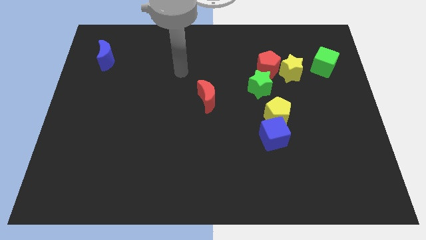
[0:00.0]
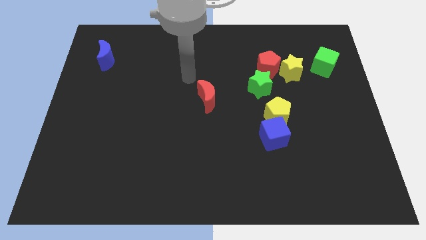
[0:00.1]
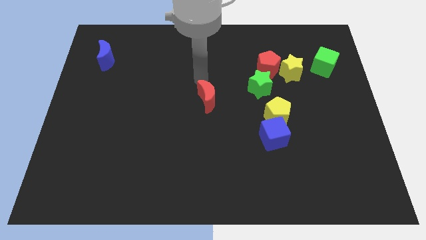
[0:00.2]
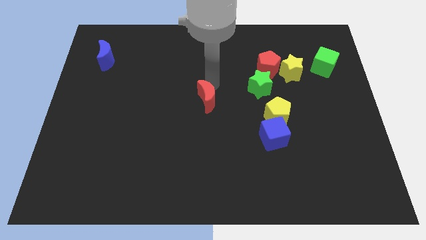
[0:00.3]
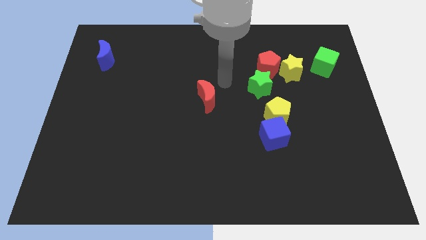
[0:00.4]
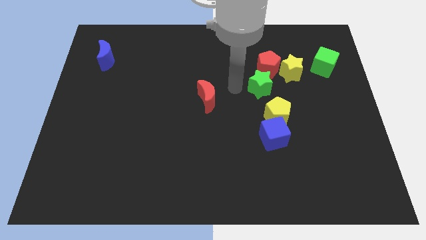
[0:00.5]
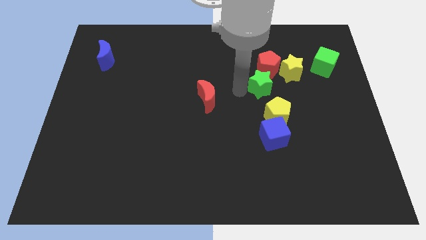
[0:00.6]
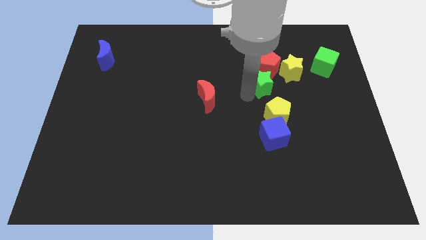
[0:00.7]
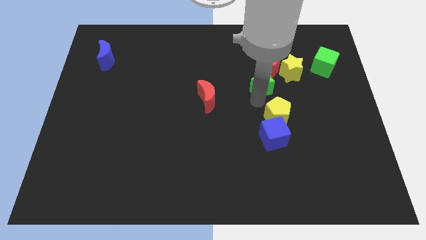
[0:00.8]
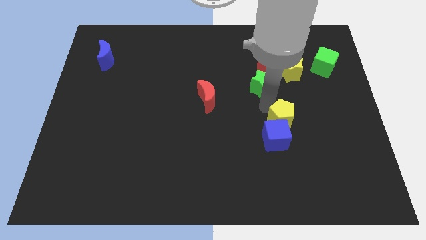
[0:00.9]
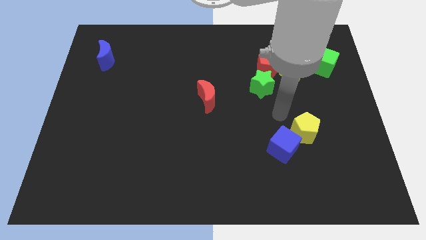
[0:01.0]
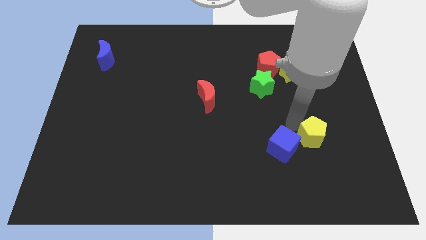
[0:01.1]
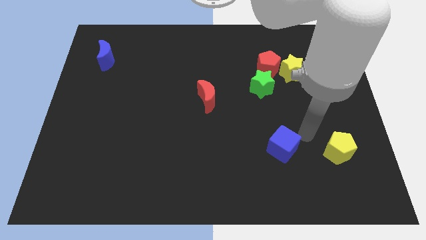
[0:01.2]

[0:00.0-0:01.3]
separate the blue cube from the yellow pentagon

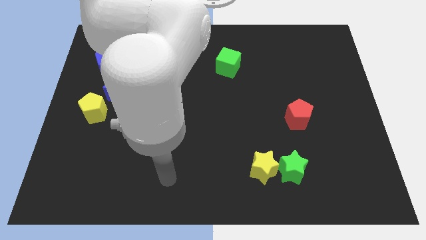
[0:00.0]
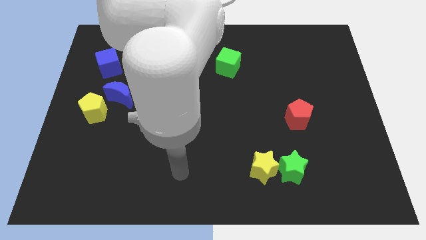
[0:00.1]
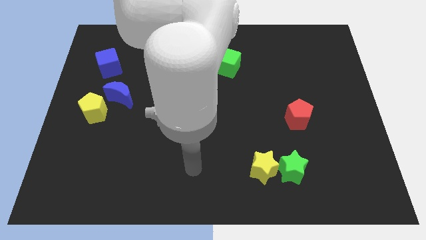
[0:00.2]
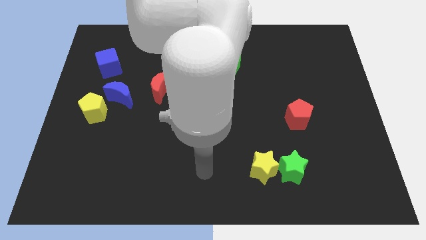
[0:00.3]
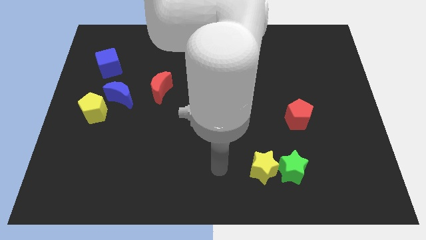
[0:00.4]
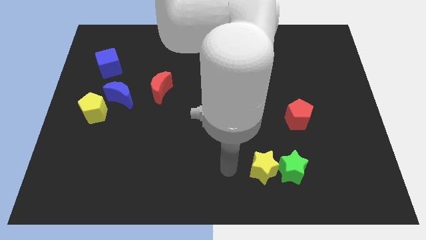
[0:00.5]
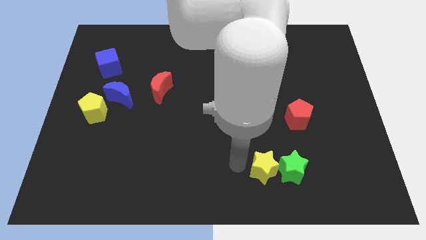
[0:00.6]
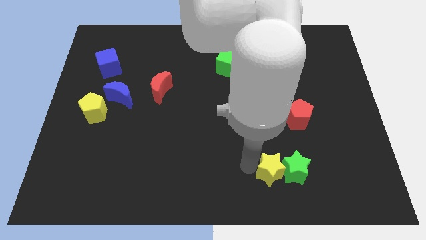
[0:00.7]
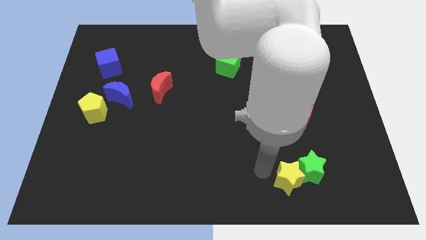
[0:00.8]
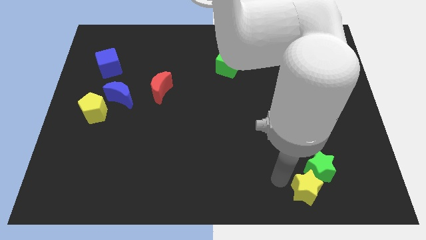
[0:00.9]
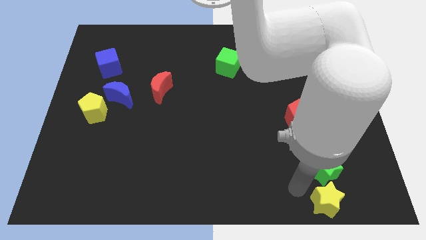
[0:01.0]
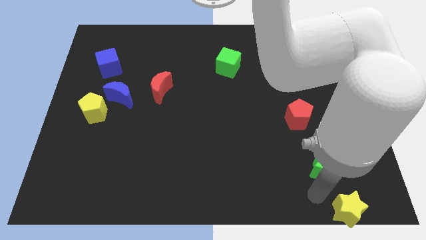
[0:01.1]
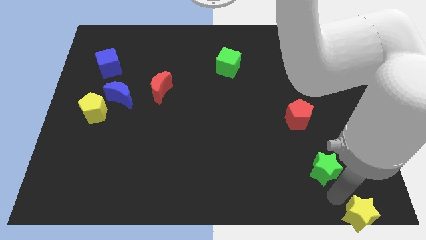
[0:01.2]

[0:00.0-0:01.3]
pull the green star apart from the yellow star

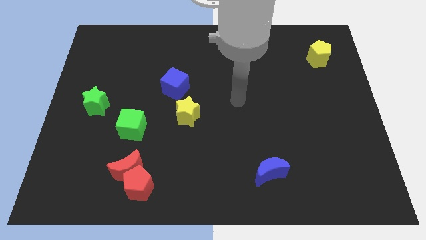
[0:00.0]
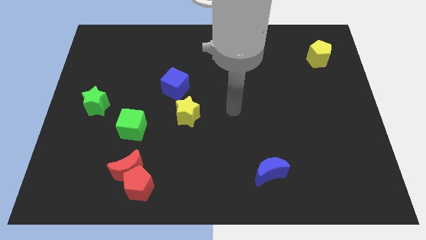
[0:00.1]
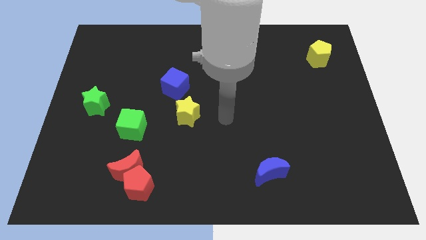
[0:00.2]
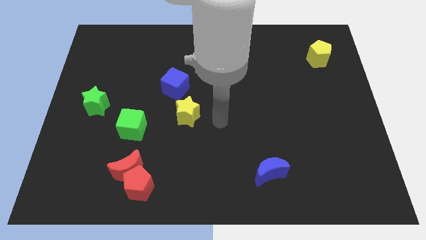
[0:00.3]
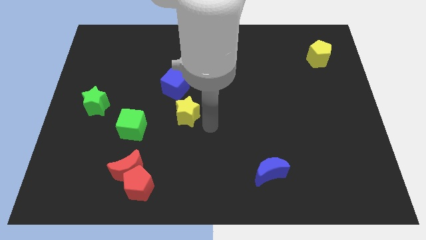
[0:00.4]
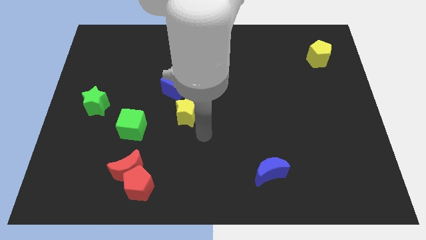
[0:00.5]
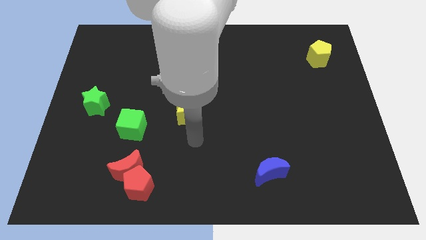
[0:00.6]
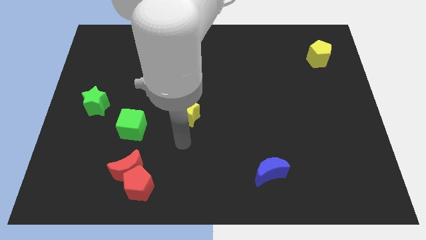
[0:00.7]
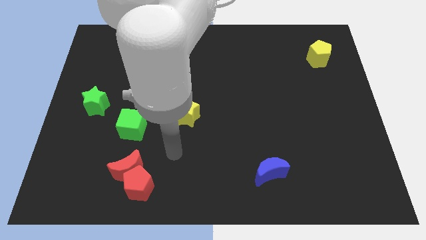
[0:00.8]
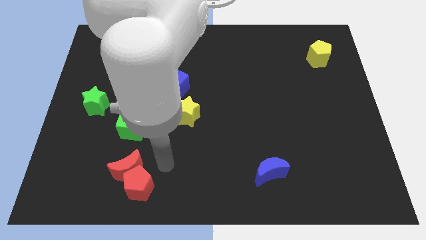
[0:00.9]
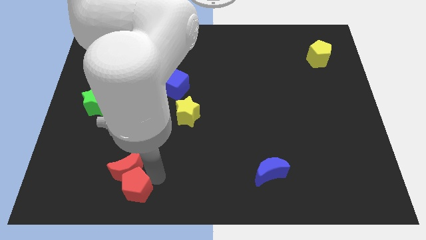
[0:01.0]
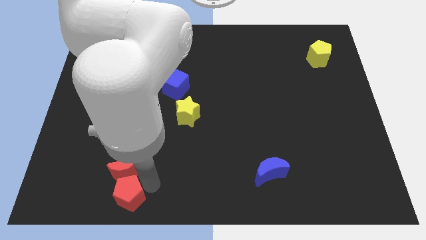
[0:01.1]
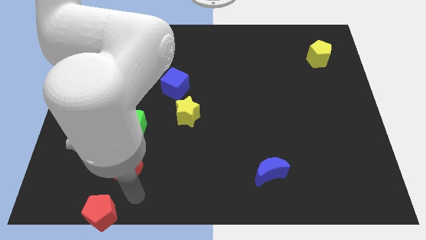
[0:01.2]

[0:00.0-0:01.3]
separate the red moon from the red pentagon

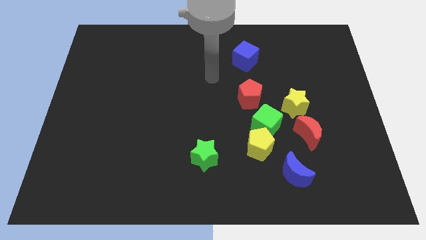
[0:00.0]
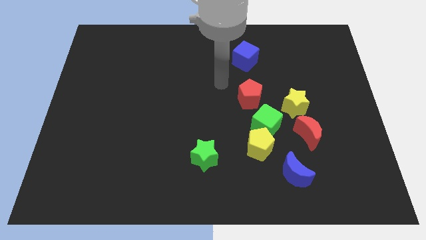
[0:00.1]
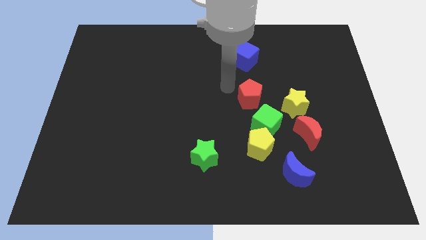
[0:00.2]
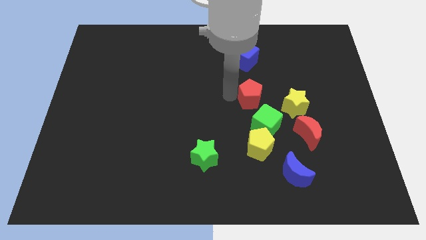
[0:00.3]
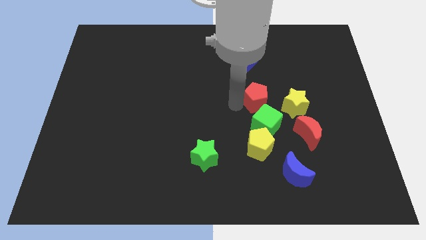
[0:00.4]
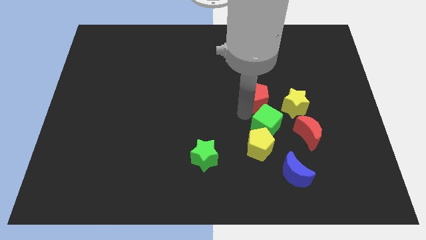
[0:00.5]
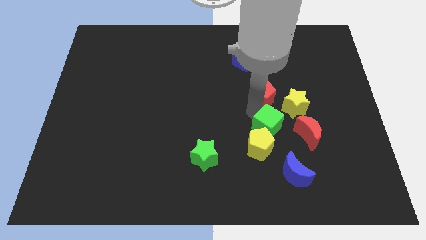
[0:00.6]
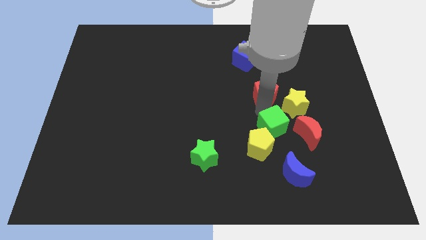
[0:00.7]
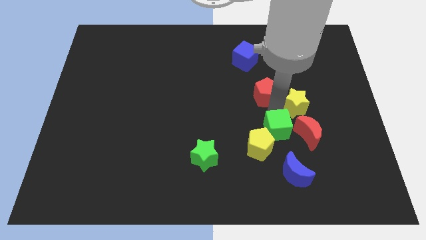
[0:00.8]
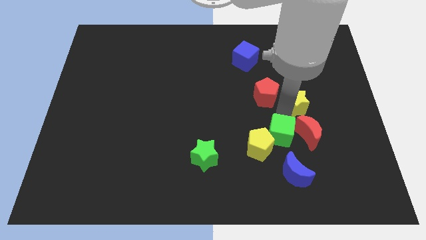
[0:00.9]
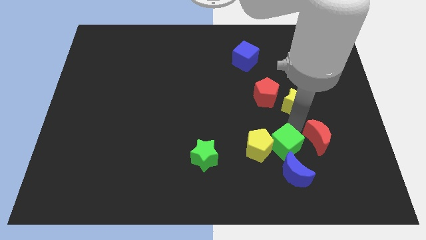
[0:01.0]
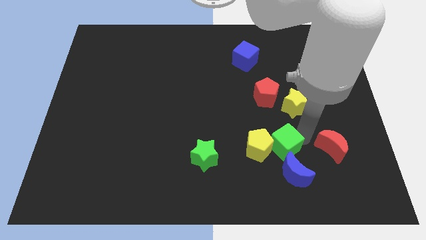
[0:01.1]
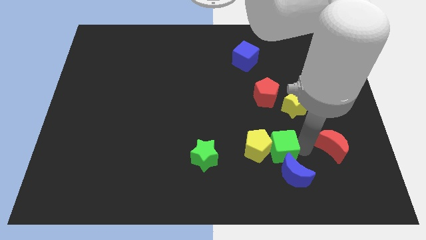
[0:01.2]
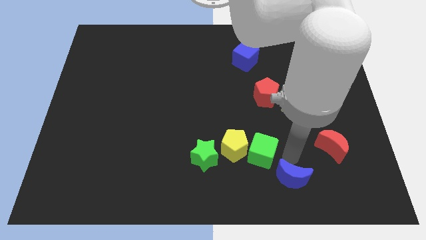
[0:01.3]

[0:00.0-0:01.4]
pull the yellow pentagon apart from the green cube and blue moon

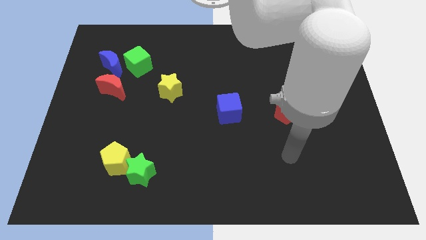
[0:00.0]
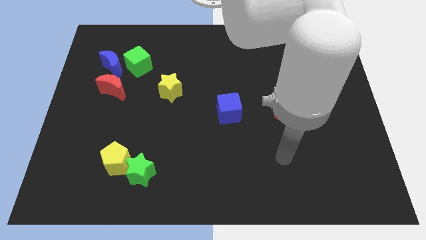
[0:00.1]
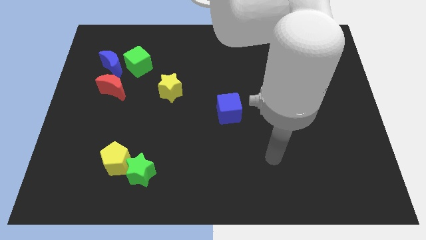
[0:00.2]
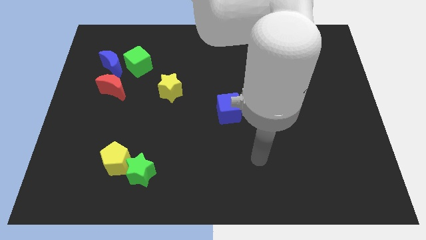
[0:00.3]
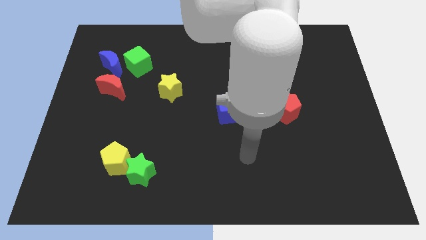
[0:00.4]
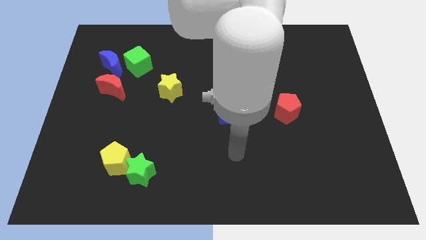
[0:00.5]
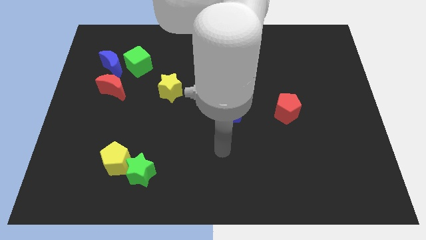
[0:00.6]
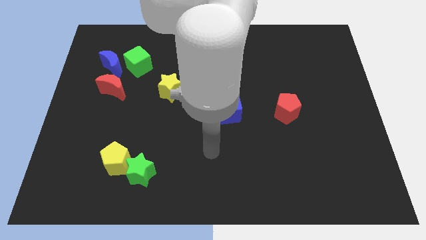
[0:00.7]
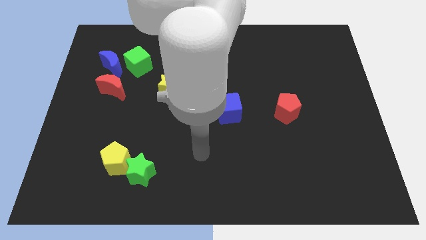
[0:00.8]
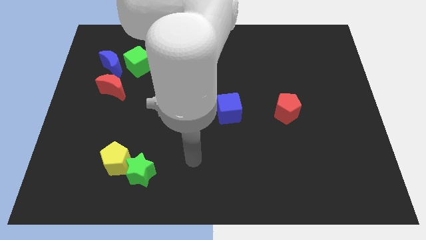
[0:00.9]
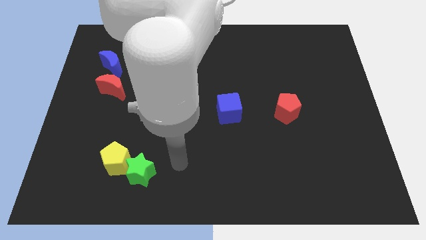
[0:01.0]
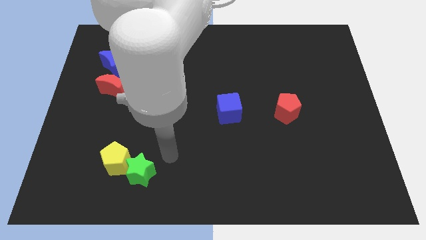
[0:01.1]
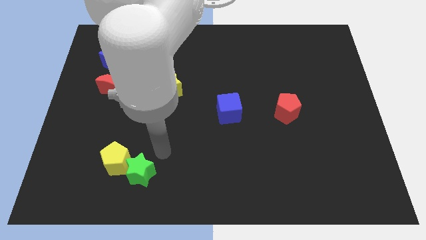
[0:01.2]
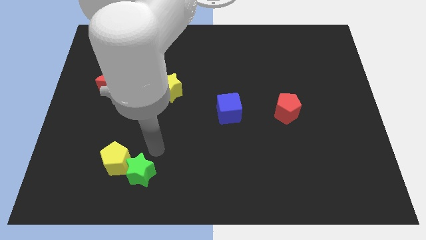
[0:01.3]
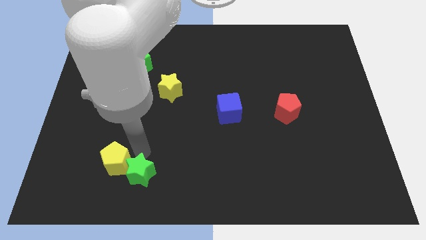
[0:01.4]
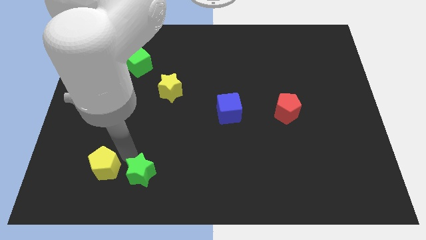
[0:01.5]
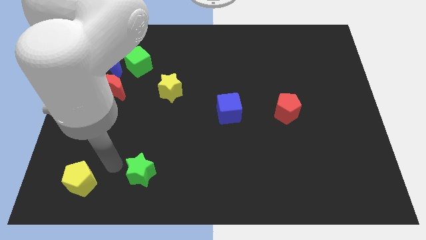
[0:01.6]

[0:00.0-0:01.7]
move the green star away from the yellow pentagon

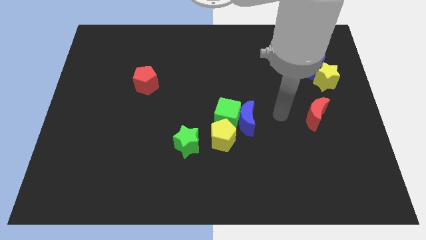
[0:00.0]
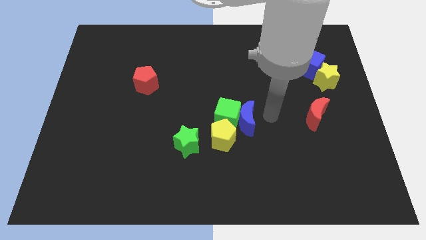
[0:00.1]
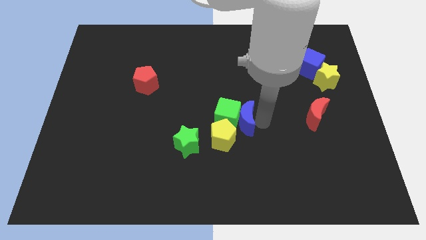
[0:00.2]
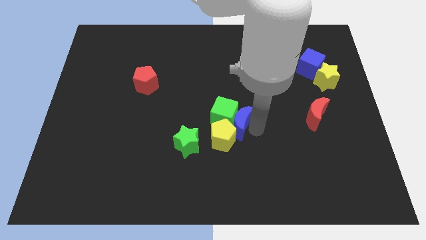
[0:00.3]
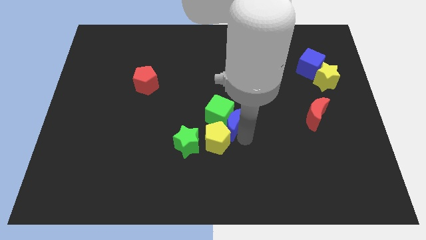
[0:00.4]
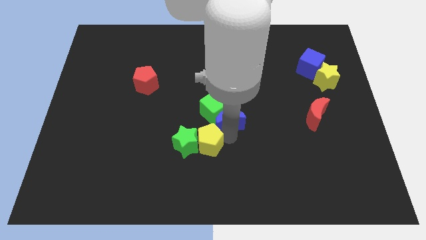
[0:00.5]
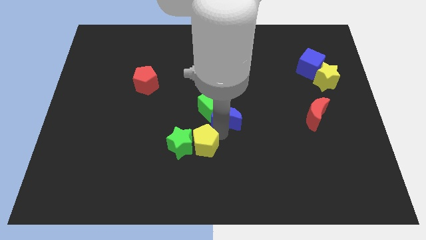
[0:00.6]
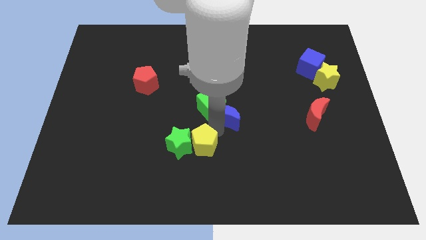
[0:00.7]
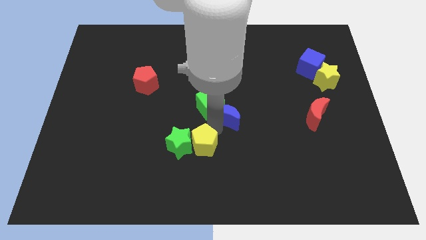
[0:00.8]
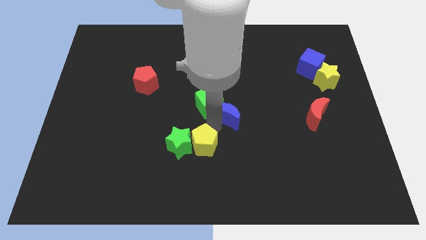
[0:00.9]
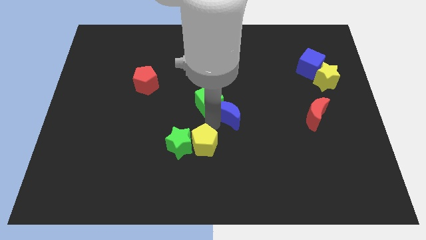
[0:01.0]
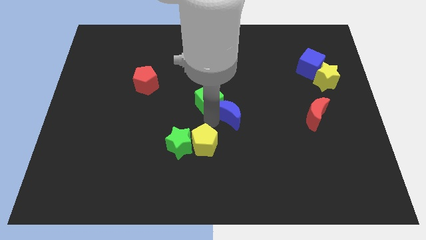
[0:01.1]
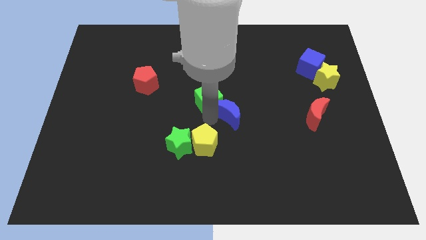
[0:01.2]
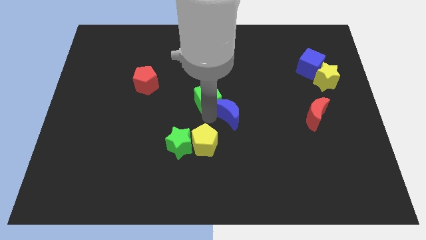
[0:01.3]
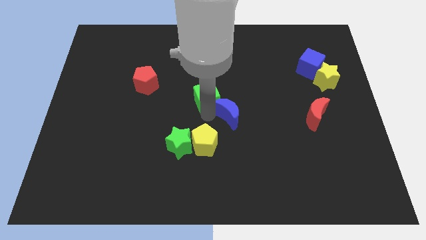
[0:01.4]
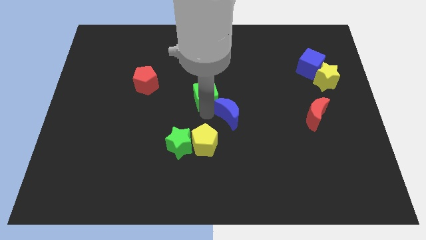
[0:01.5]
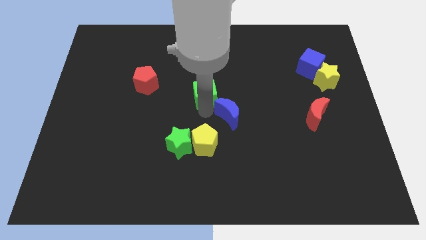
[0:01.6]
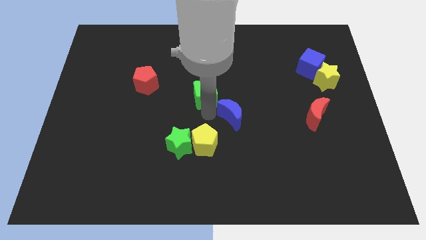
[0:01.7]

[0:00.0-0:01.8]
move the green cube away from the blue moon and yellow pentagon

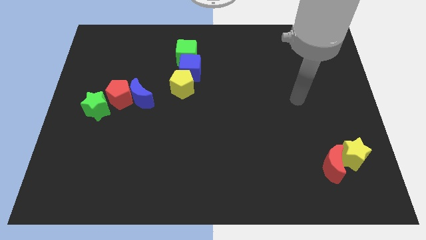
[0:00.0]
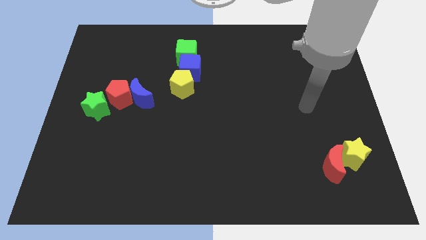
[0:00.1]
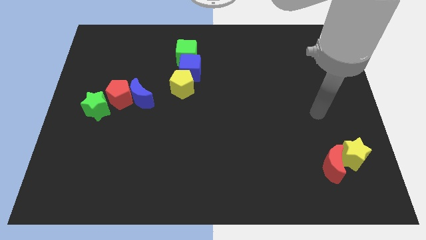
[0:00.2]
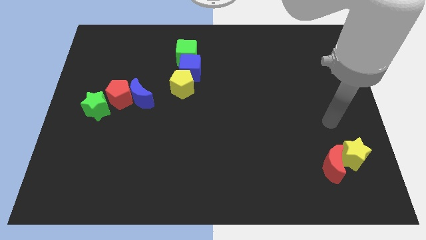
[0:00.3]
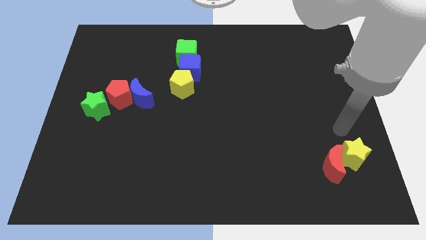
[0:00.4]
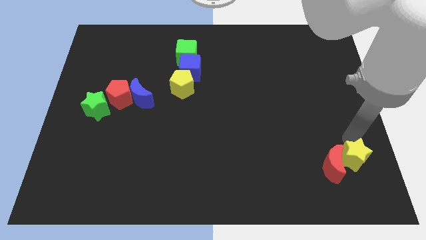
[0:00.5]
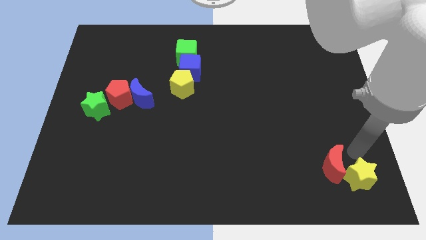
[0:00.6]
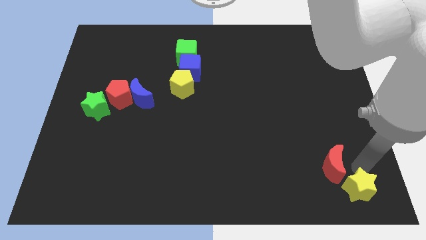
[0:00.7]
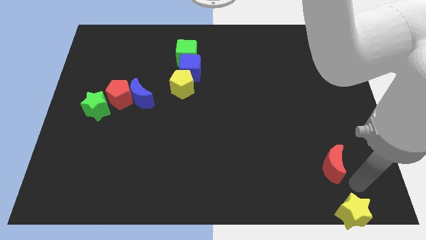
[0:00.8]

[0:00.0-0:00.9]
pull the red moon apart from the yellow star
